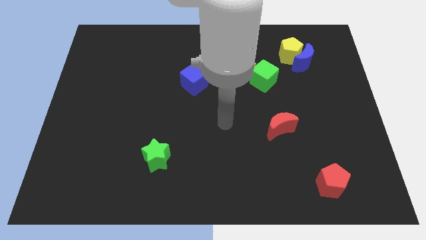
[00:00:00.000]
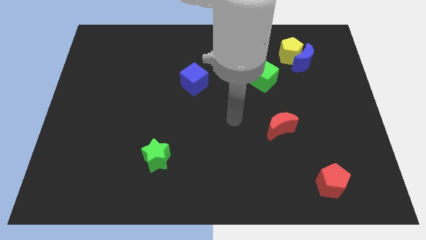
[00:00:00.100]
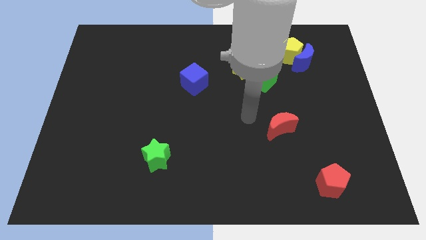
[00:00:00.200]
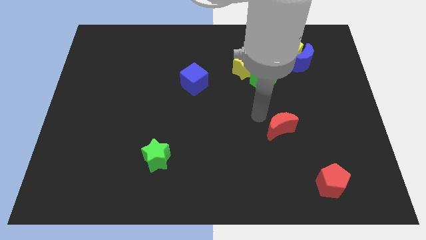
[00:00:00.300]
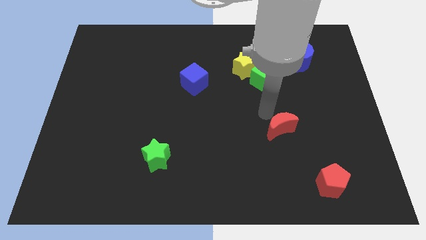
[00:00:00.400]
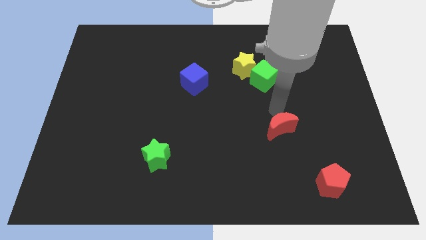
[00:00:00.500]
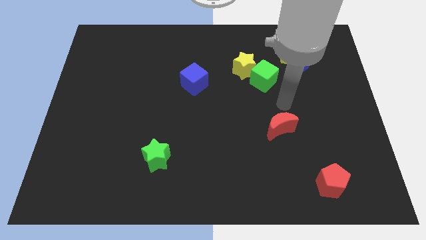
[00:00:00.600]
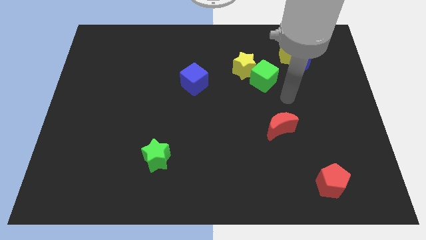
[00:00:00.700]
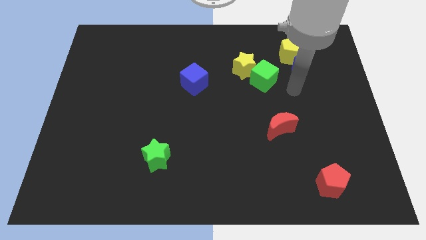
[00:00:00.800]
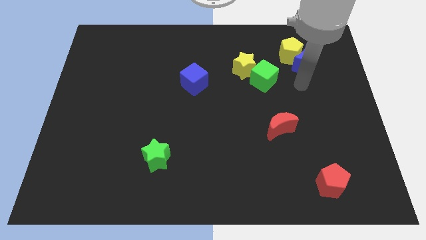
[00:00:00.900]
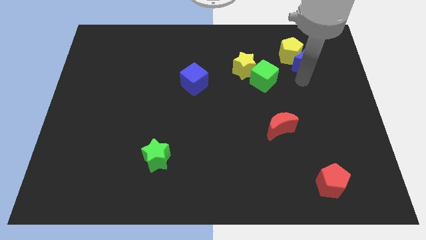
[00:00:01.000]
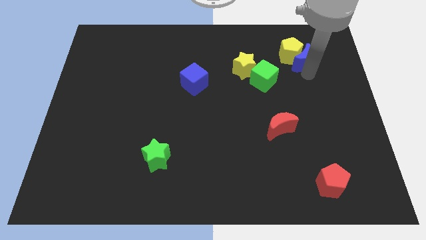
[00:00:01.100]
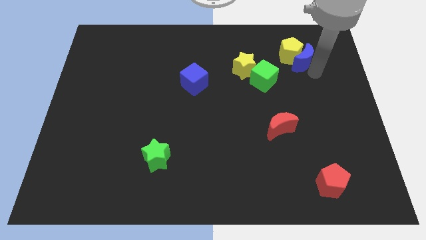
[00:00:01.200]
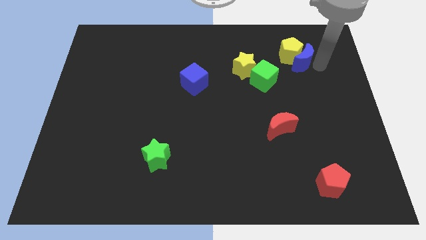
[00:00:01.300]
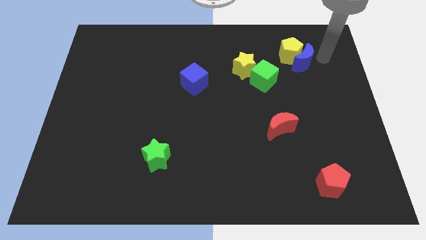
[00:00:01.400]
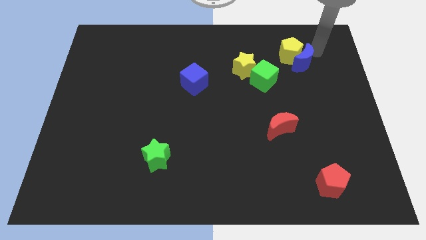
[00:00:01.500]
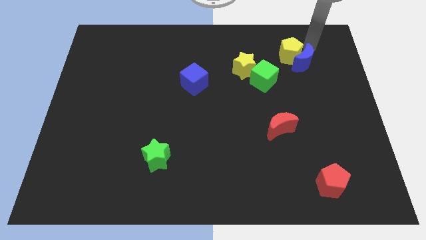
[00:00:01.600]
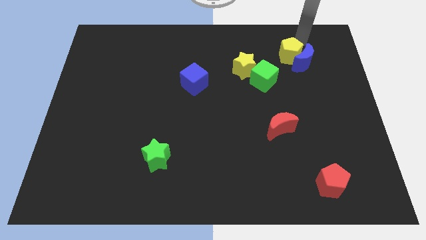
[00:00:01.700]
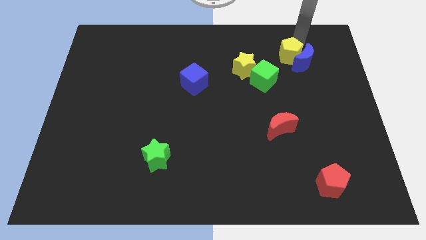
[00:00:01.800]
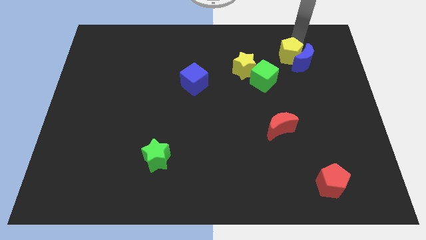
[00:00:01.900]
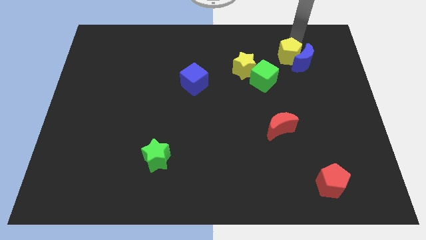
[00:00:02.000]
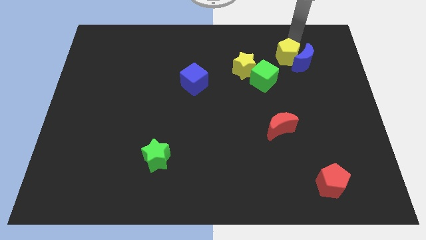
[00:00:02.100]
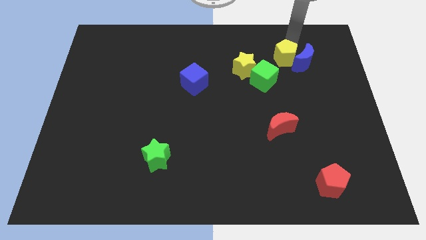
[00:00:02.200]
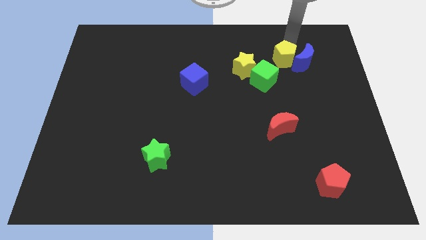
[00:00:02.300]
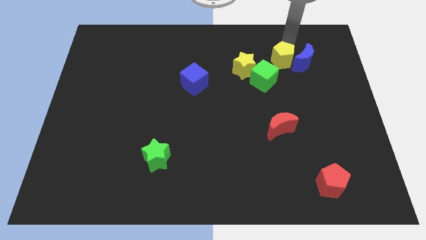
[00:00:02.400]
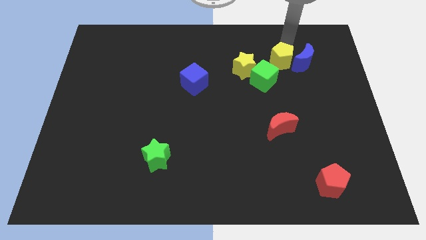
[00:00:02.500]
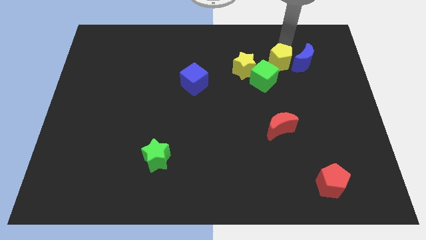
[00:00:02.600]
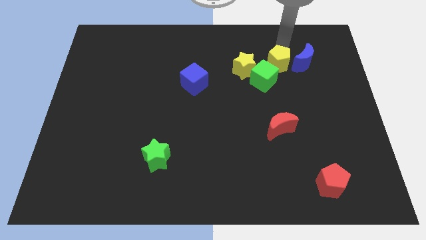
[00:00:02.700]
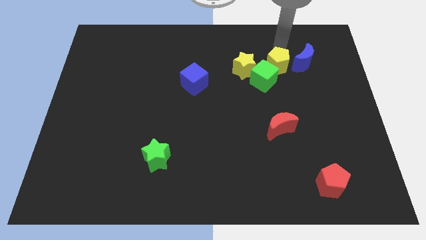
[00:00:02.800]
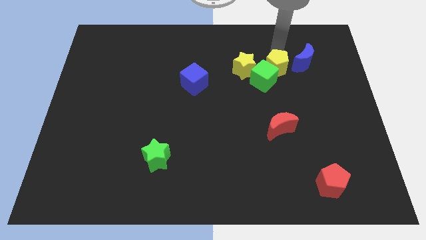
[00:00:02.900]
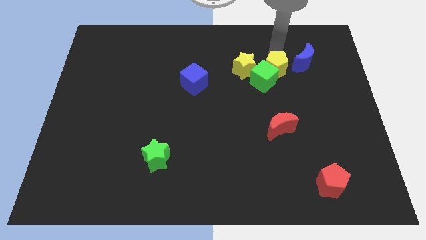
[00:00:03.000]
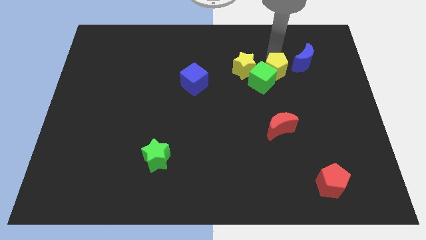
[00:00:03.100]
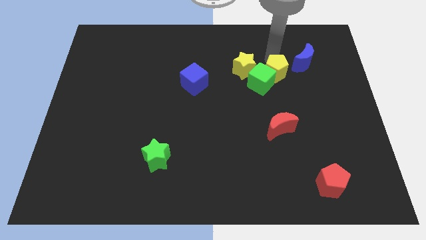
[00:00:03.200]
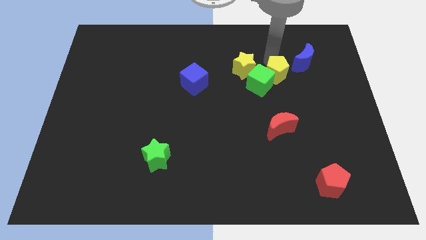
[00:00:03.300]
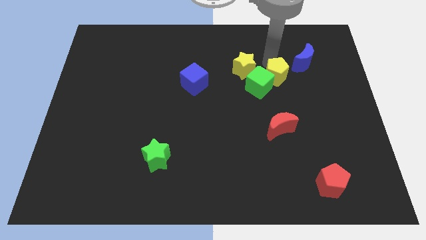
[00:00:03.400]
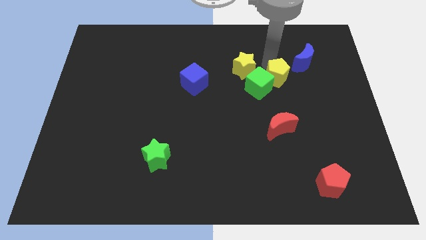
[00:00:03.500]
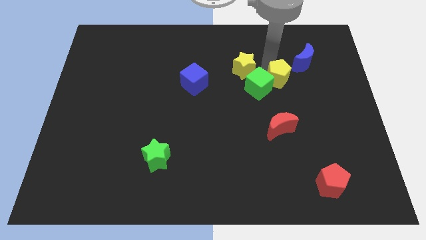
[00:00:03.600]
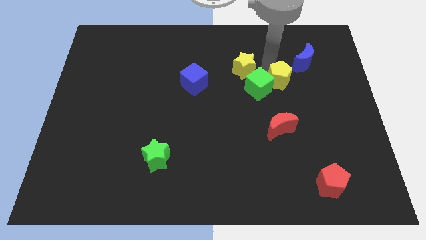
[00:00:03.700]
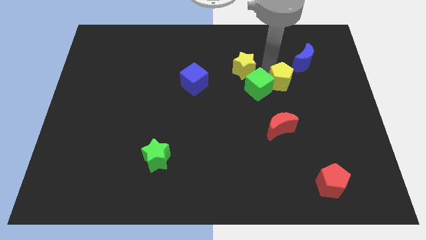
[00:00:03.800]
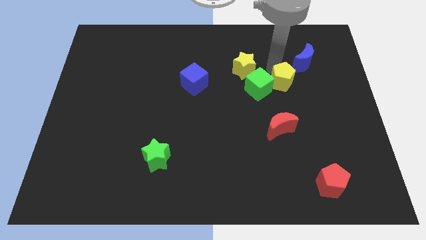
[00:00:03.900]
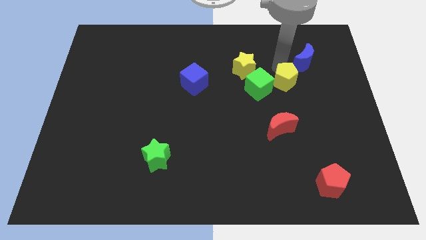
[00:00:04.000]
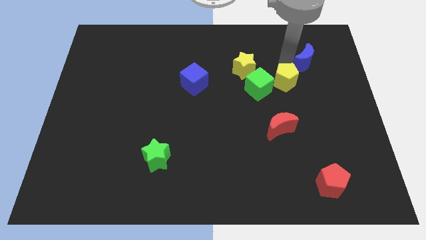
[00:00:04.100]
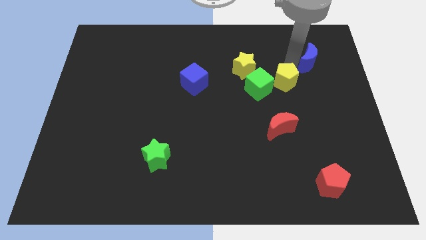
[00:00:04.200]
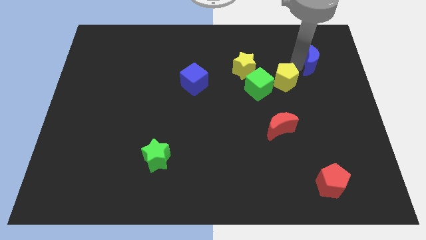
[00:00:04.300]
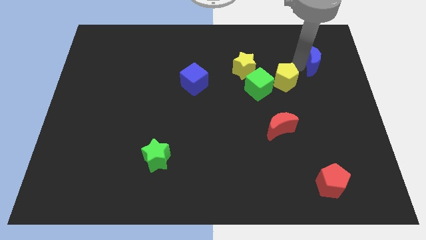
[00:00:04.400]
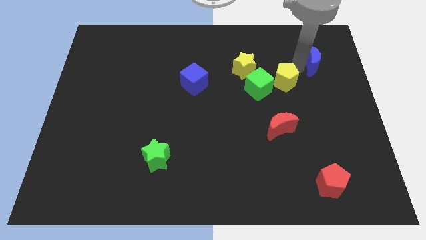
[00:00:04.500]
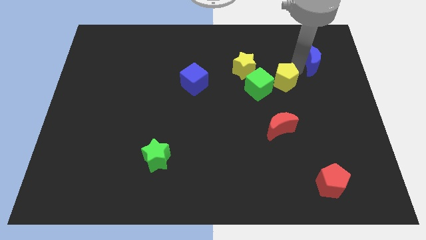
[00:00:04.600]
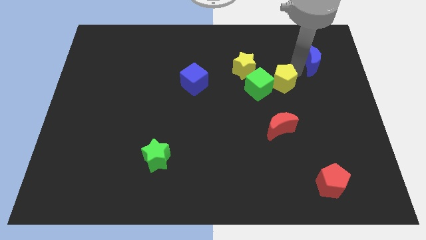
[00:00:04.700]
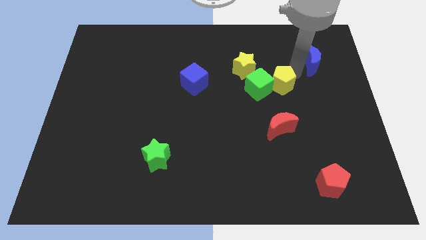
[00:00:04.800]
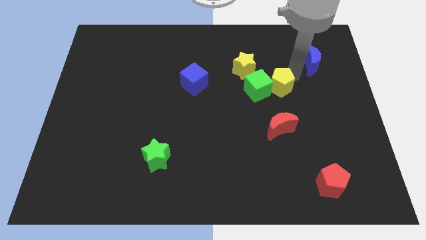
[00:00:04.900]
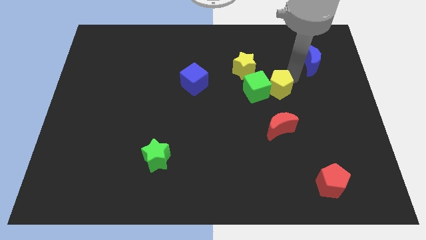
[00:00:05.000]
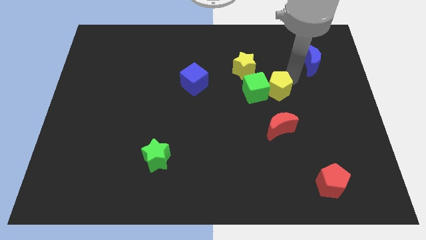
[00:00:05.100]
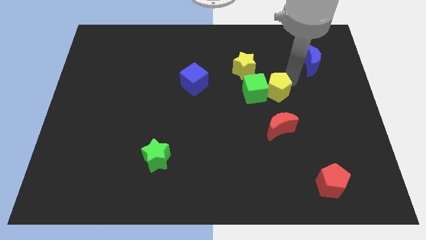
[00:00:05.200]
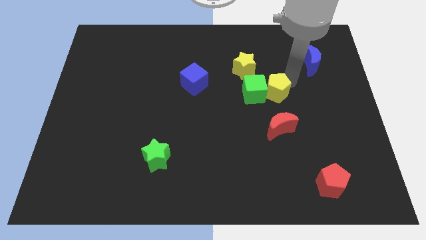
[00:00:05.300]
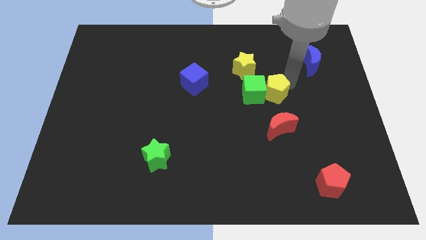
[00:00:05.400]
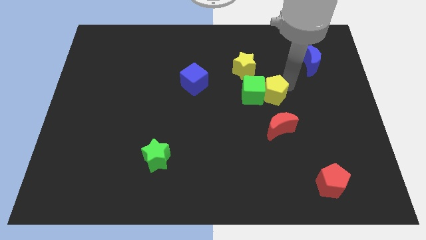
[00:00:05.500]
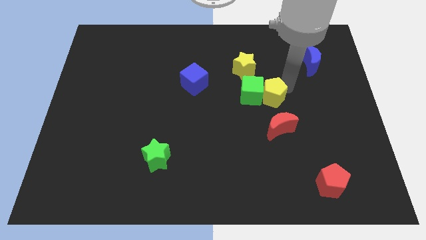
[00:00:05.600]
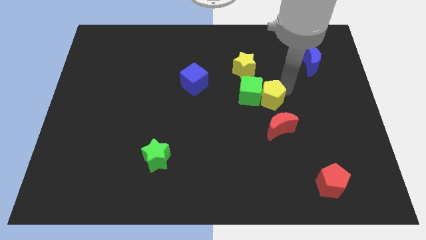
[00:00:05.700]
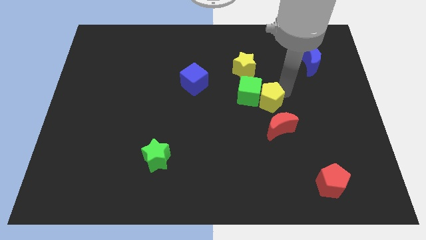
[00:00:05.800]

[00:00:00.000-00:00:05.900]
slide the yellow pentagon diagonally up and to the left of the red moon

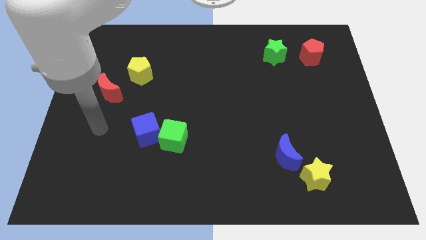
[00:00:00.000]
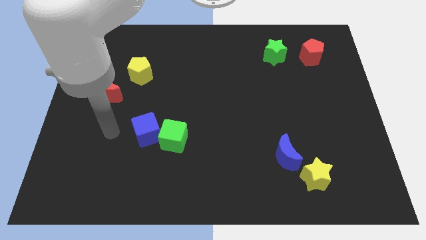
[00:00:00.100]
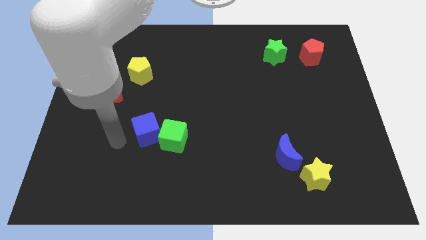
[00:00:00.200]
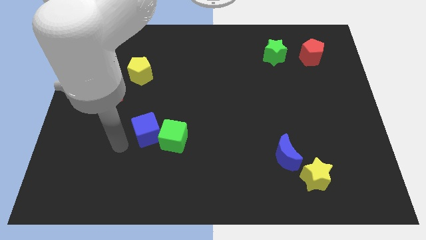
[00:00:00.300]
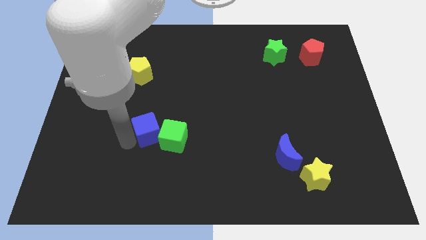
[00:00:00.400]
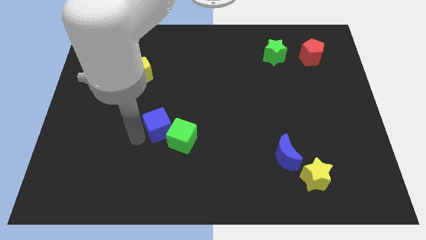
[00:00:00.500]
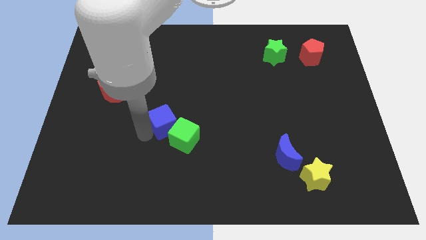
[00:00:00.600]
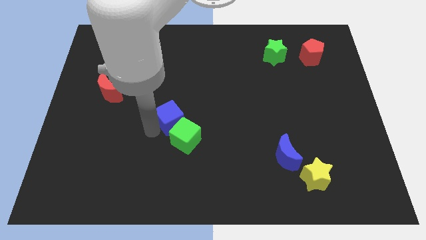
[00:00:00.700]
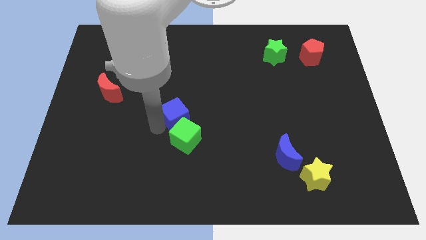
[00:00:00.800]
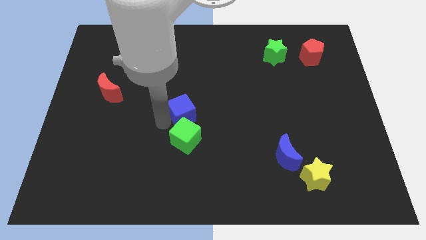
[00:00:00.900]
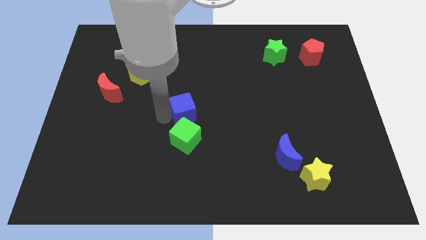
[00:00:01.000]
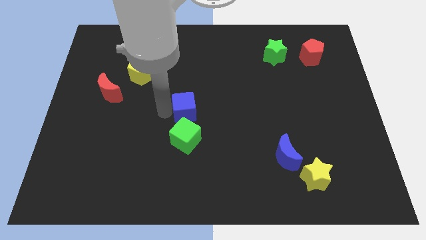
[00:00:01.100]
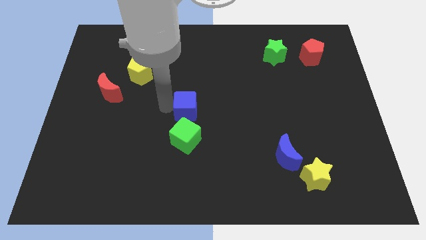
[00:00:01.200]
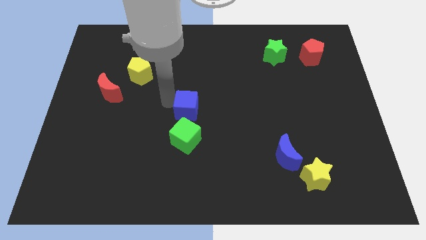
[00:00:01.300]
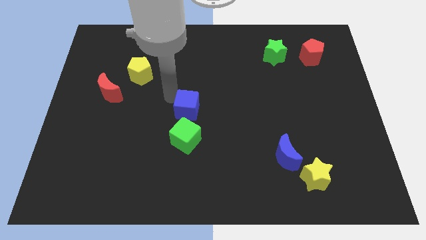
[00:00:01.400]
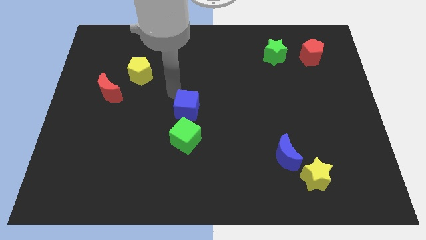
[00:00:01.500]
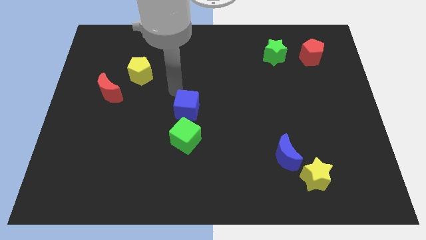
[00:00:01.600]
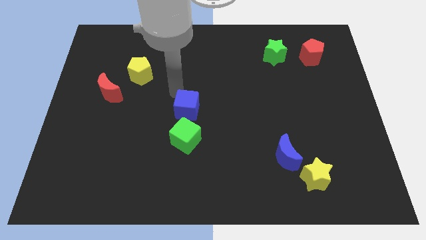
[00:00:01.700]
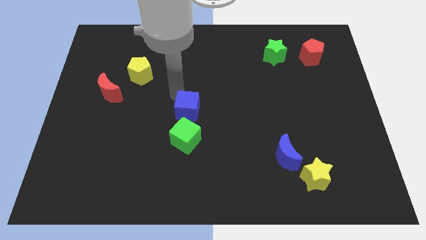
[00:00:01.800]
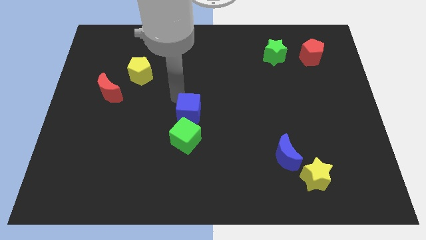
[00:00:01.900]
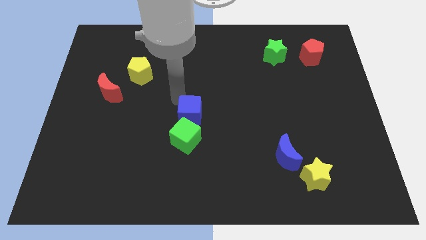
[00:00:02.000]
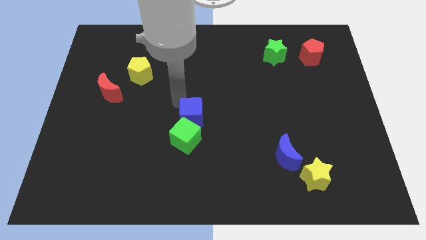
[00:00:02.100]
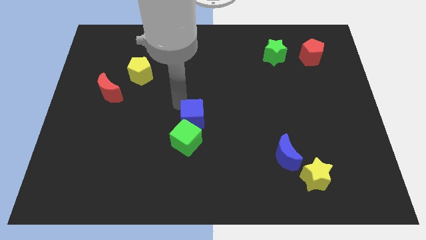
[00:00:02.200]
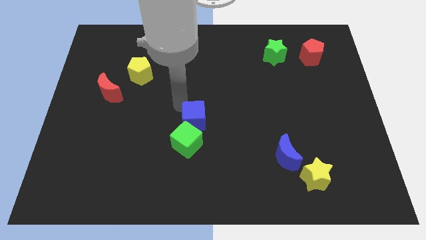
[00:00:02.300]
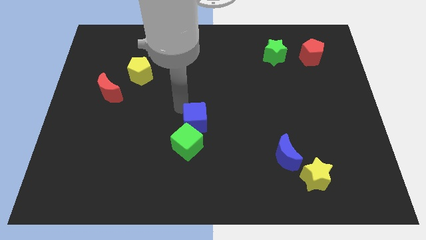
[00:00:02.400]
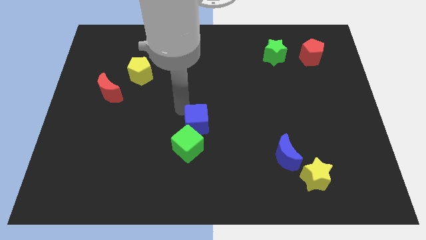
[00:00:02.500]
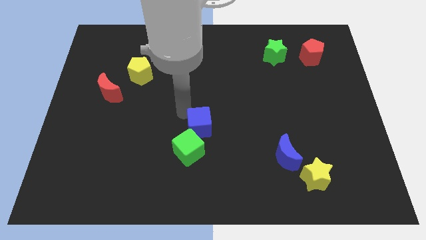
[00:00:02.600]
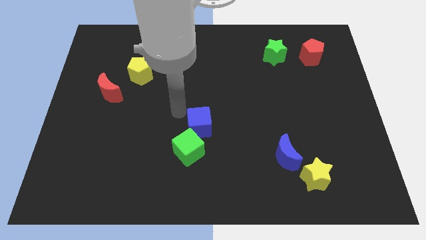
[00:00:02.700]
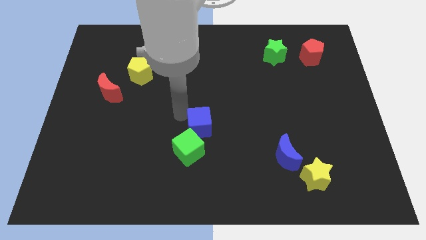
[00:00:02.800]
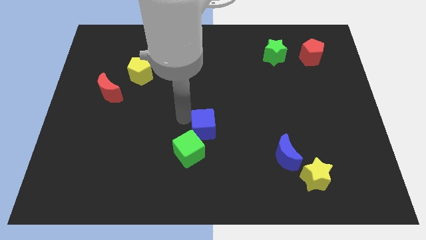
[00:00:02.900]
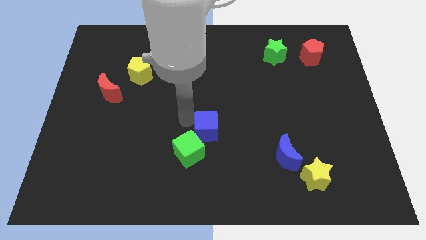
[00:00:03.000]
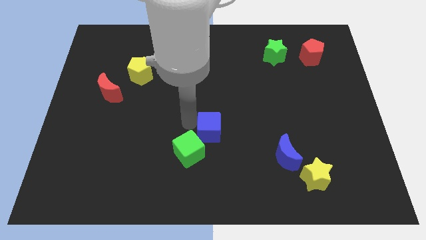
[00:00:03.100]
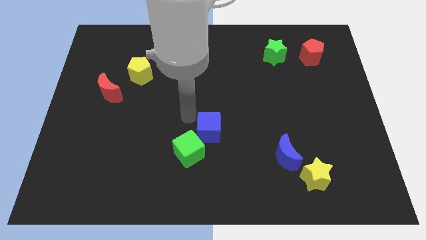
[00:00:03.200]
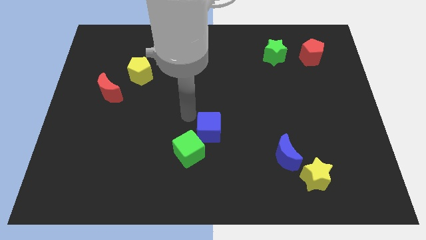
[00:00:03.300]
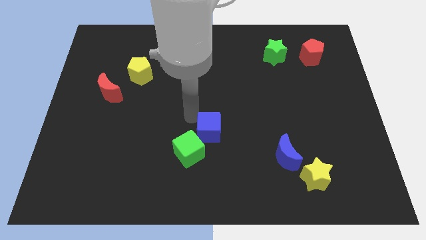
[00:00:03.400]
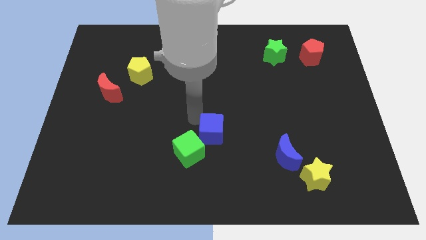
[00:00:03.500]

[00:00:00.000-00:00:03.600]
push the blue cube right of the green cube
